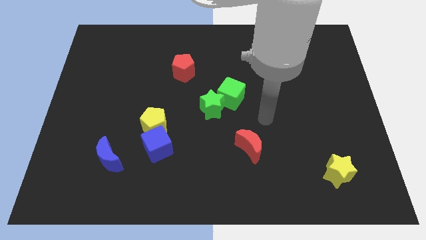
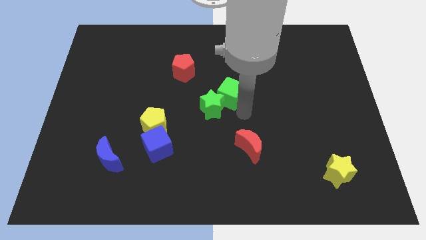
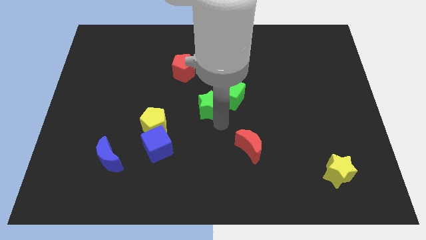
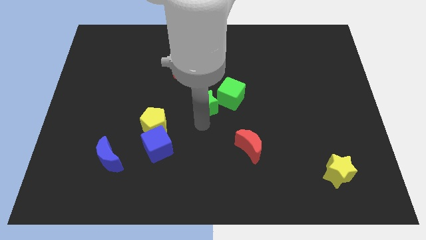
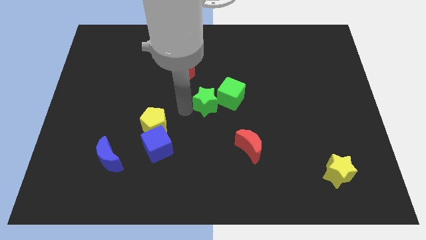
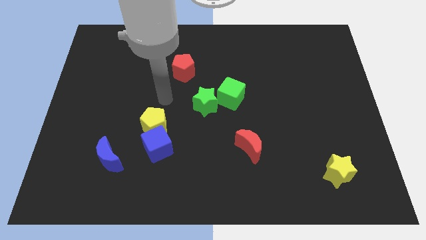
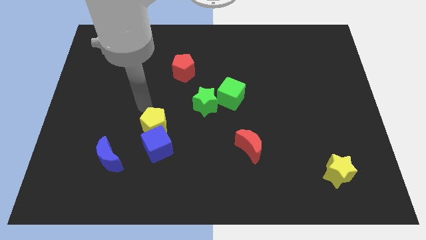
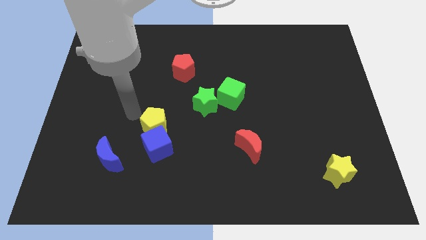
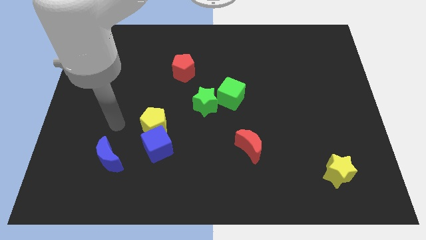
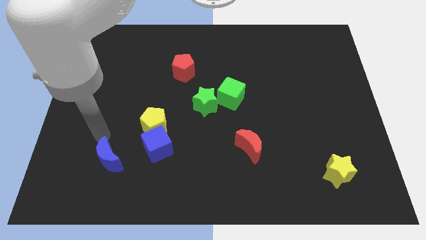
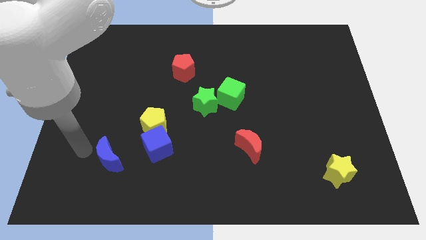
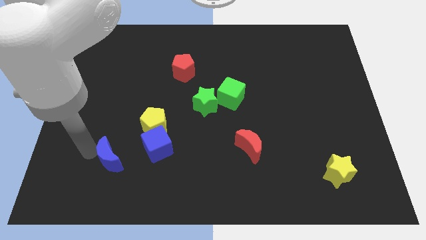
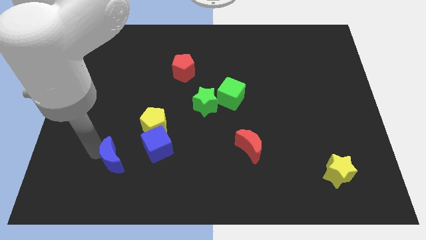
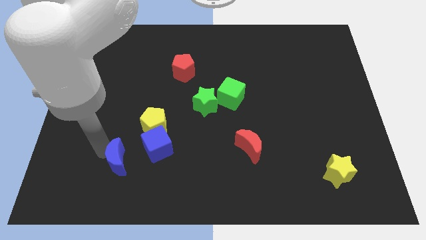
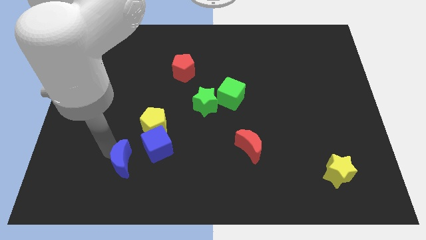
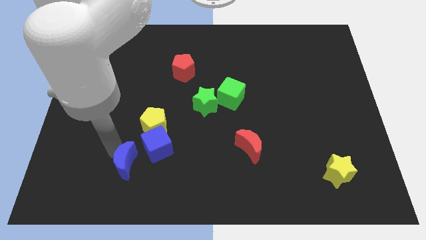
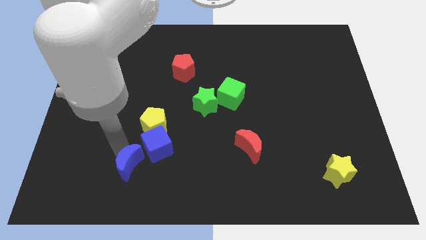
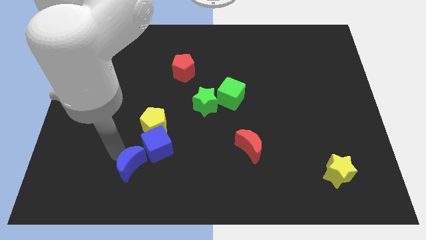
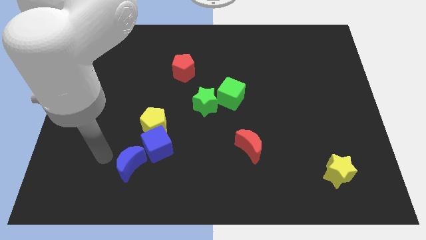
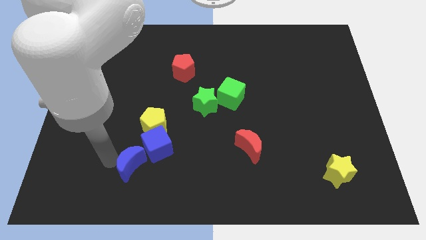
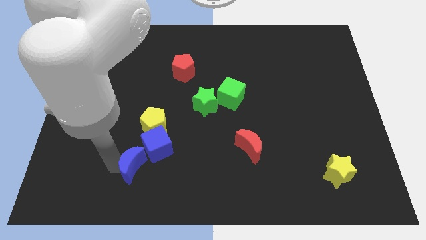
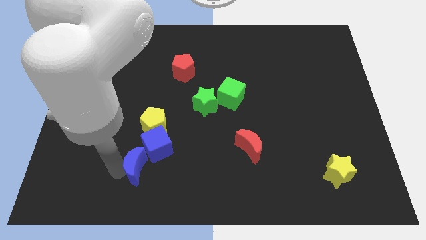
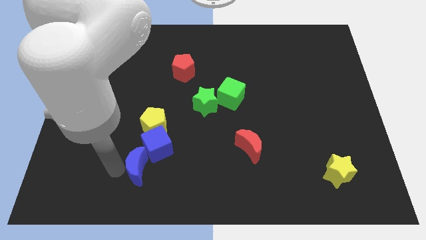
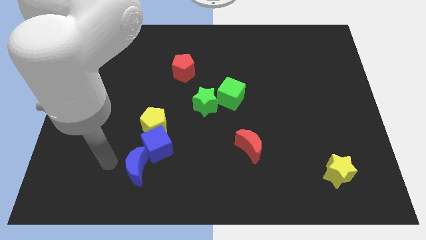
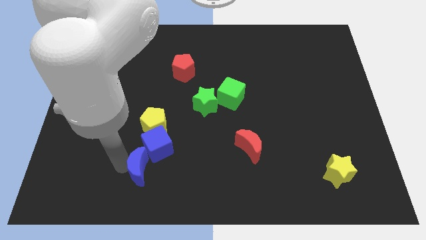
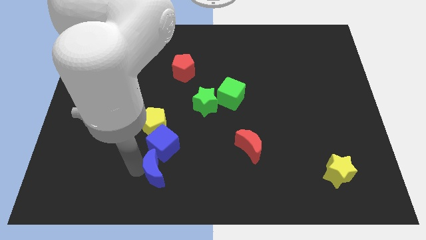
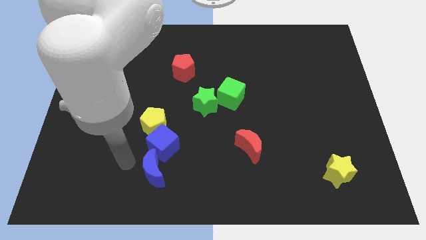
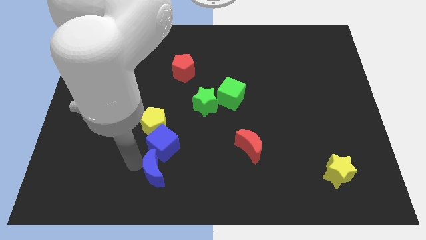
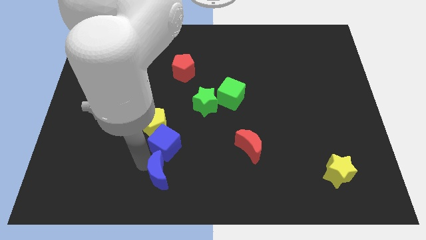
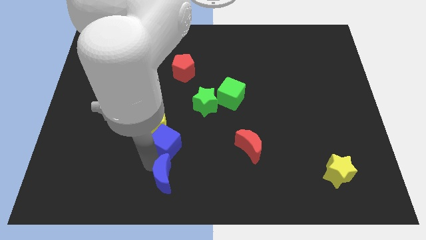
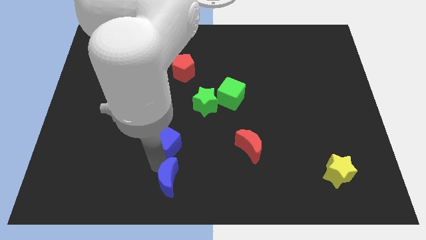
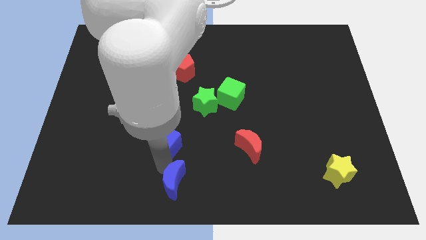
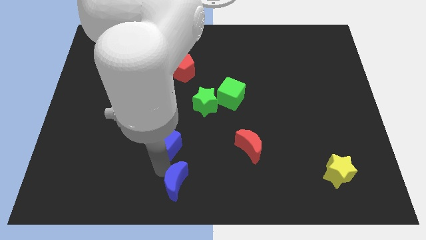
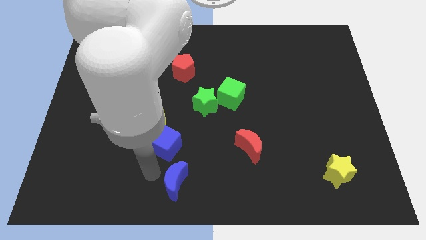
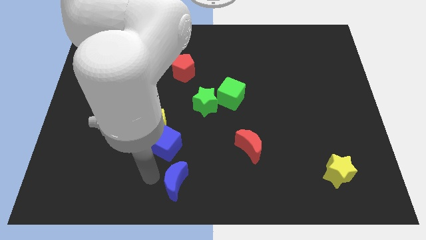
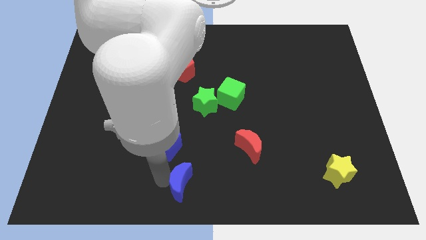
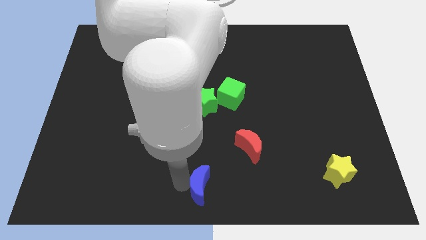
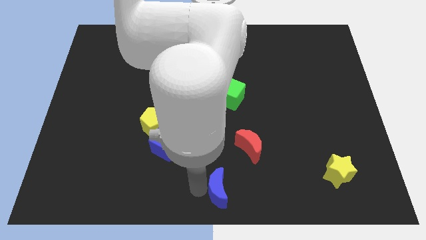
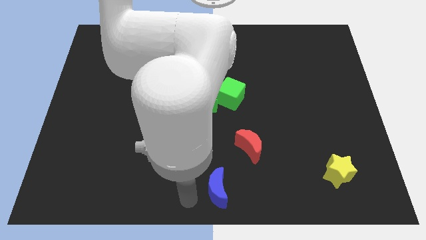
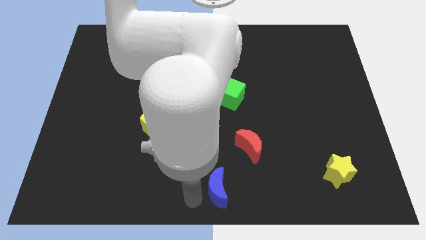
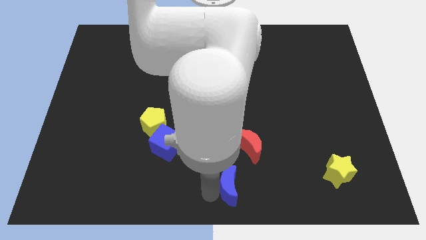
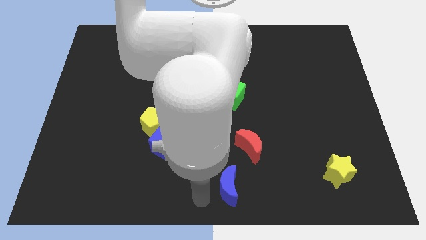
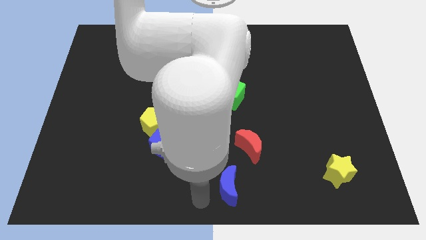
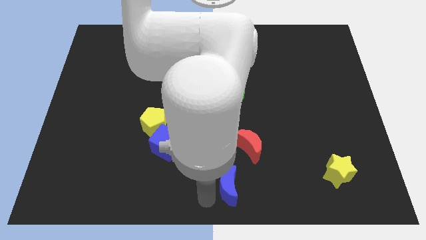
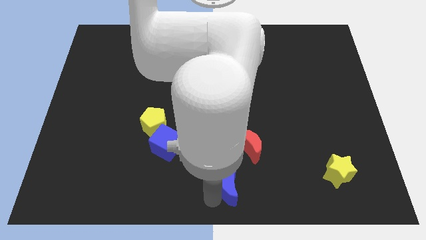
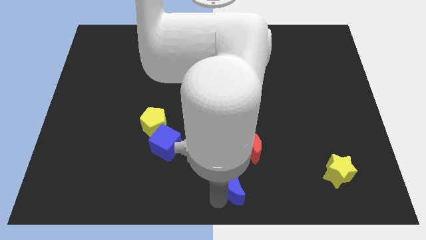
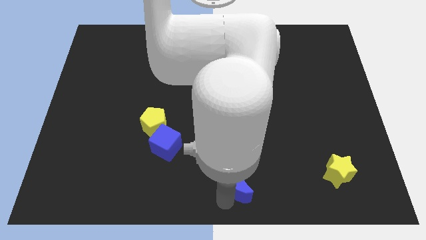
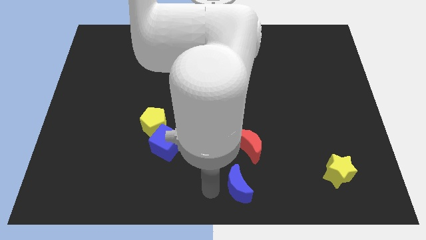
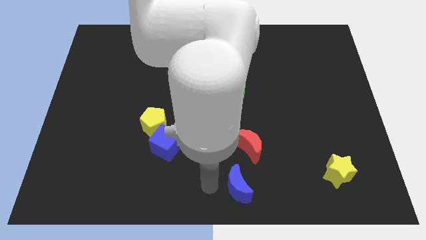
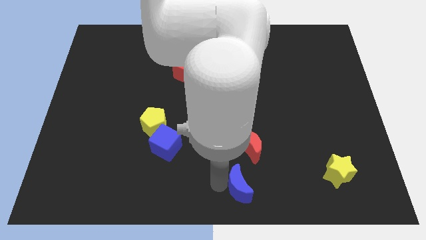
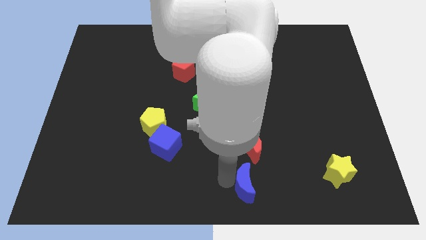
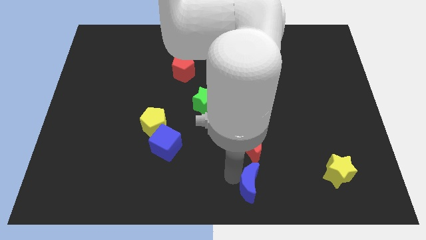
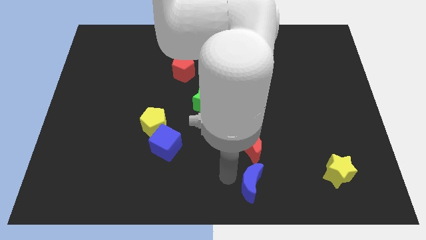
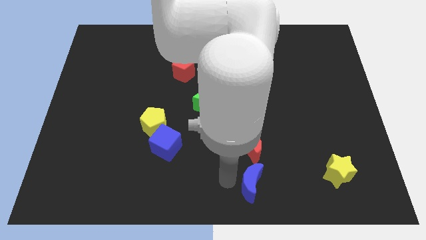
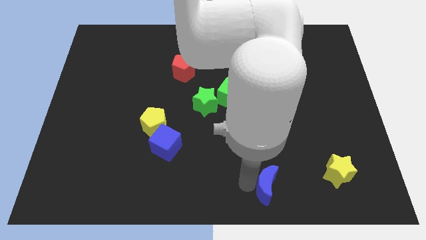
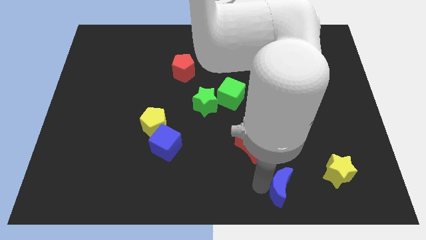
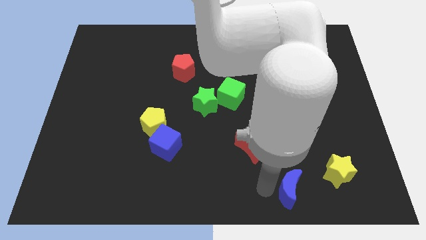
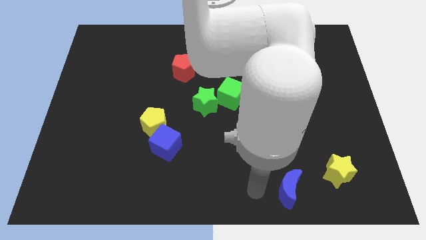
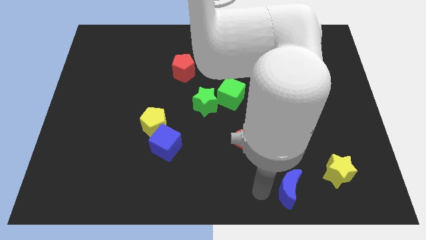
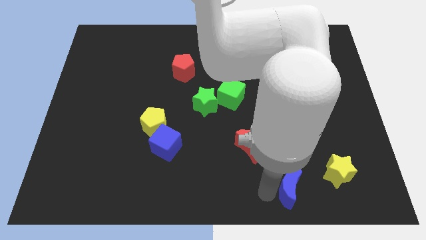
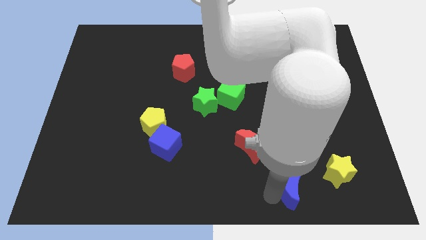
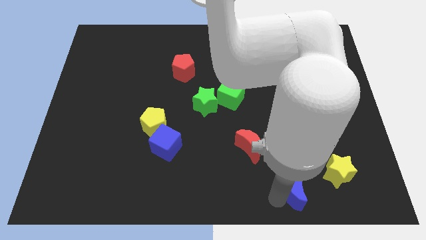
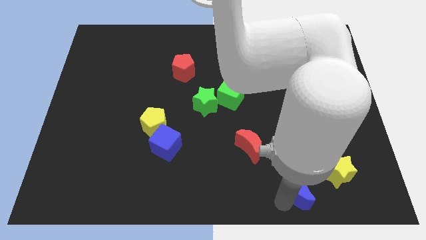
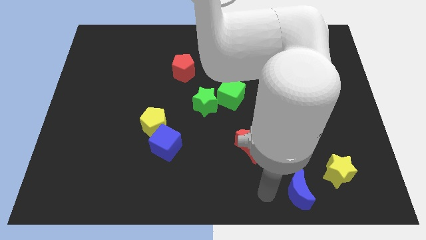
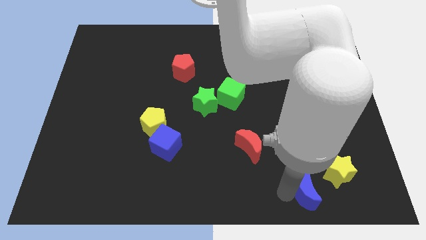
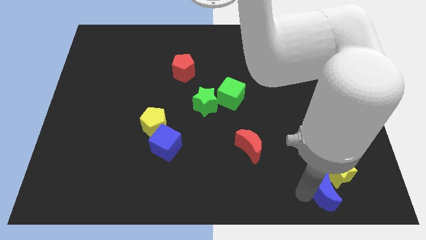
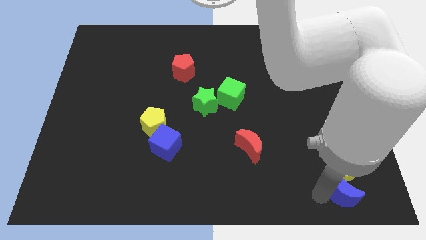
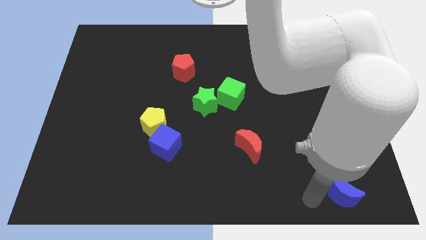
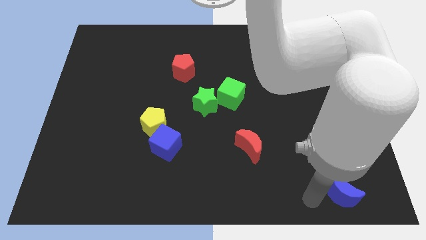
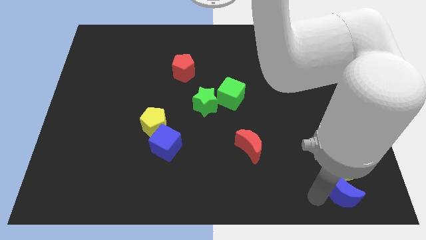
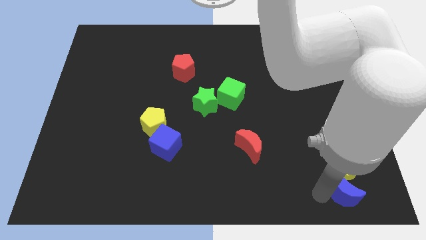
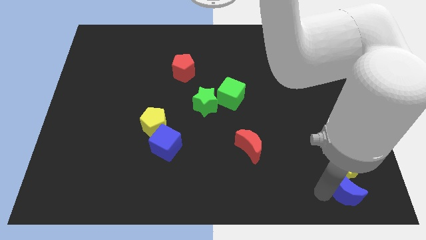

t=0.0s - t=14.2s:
slide the blue moon to the bottom right
